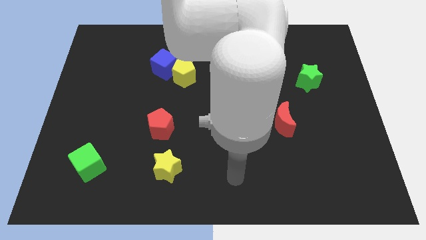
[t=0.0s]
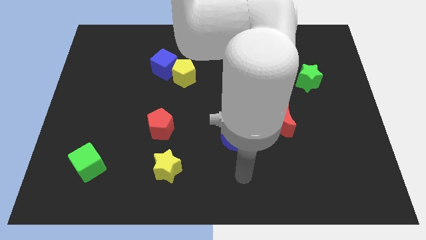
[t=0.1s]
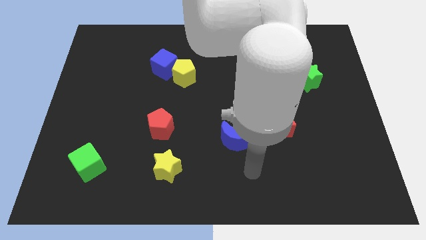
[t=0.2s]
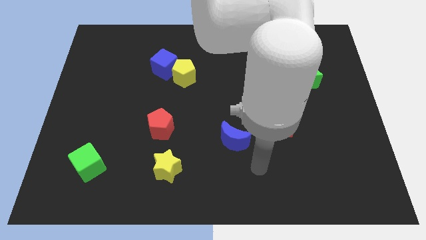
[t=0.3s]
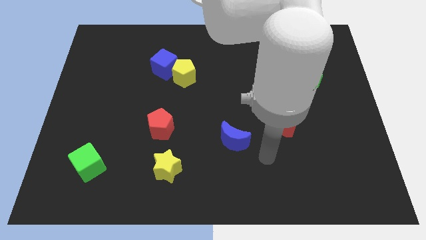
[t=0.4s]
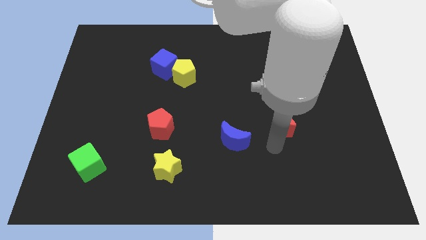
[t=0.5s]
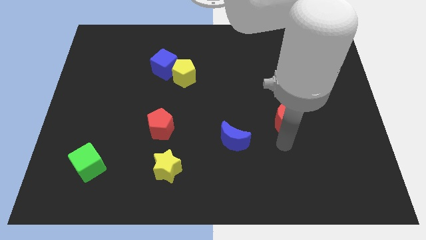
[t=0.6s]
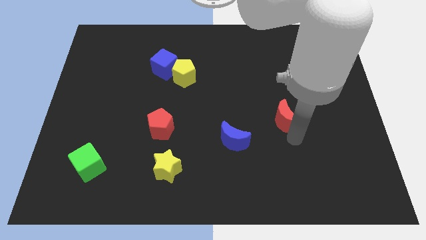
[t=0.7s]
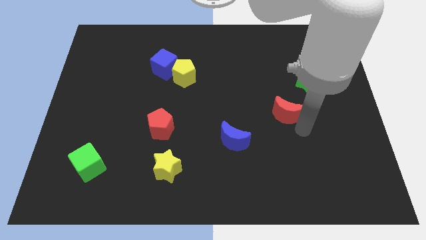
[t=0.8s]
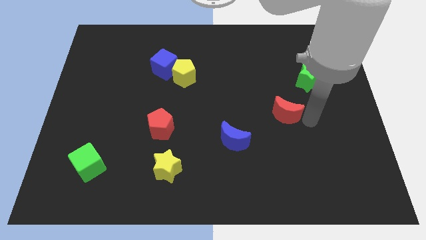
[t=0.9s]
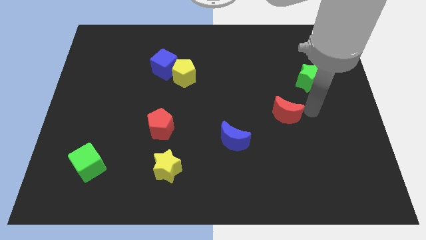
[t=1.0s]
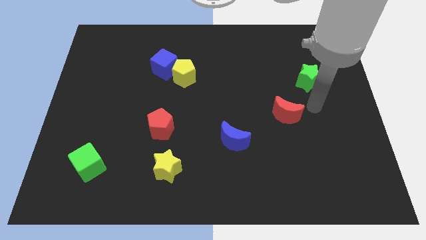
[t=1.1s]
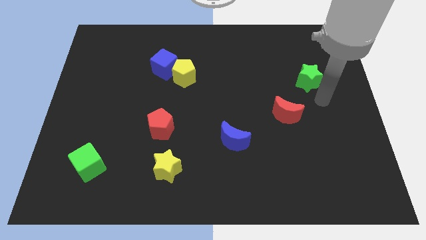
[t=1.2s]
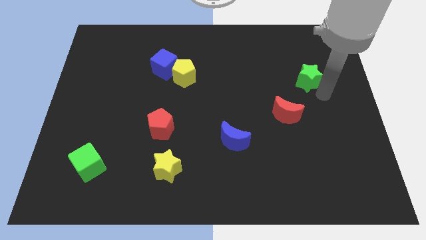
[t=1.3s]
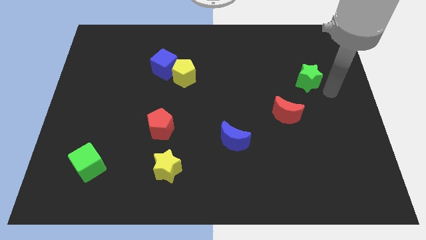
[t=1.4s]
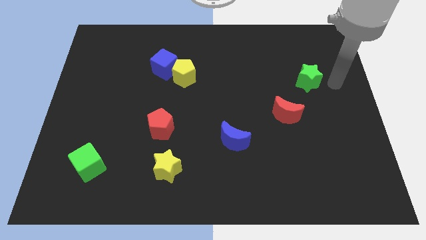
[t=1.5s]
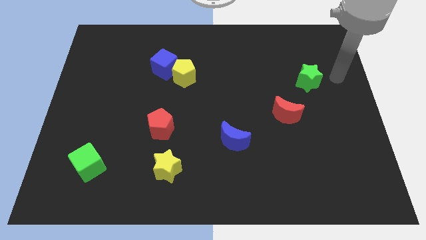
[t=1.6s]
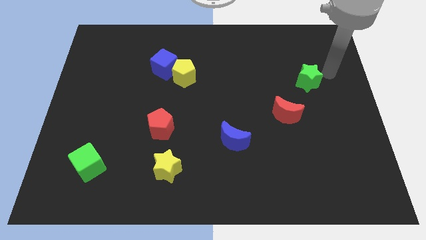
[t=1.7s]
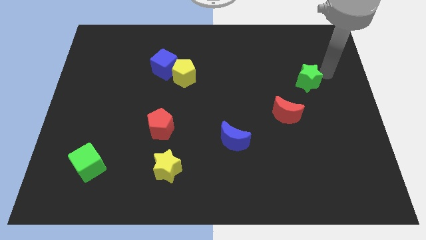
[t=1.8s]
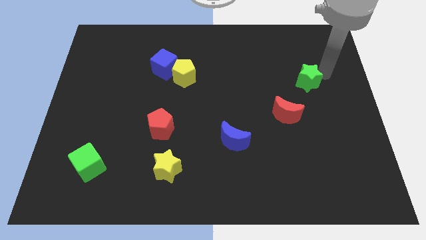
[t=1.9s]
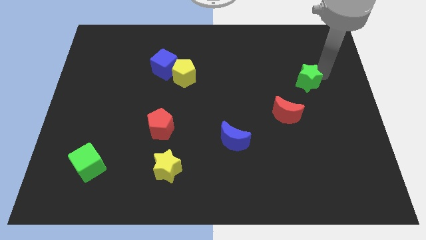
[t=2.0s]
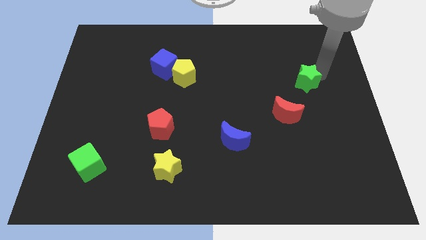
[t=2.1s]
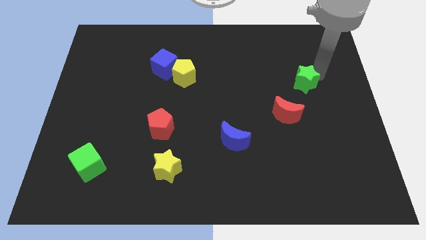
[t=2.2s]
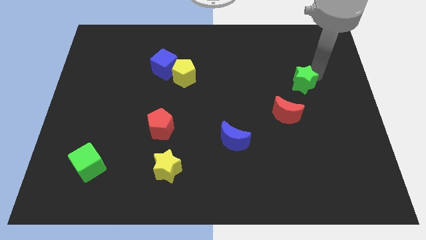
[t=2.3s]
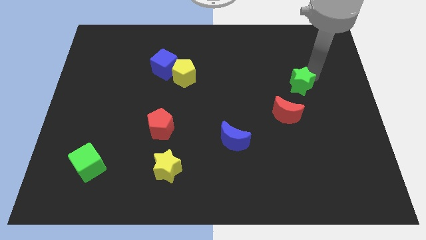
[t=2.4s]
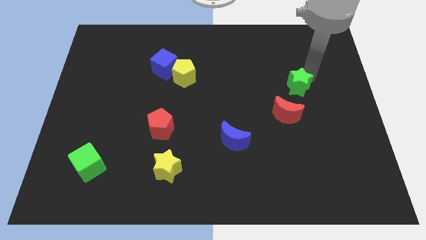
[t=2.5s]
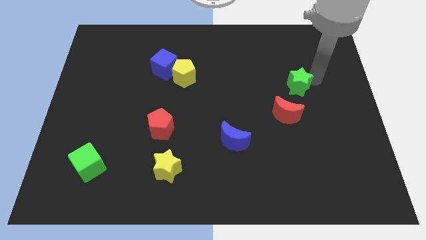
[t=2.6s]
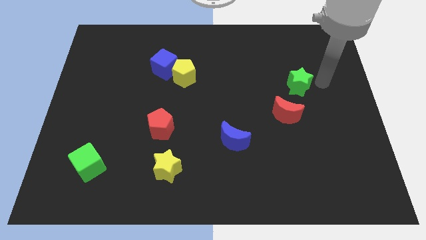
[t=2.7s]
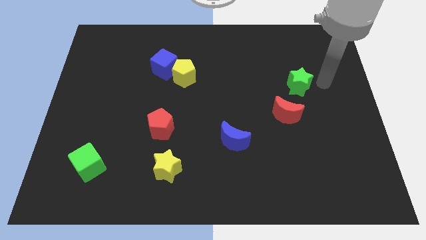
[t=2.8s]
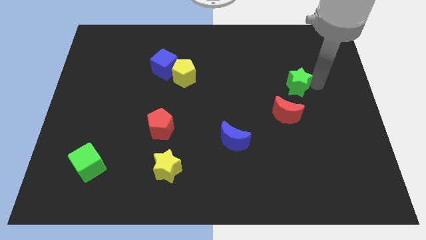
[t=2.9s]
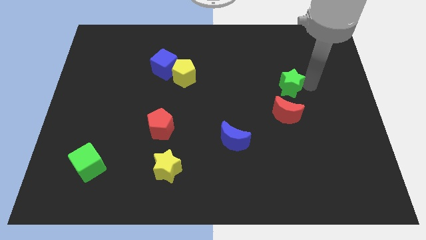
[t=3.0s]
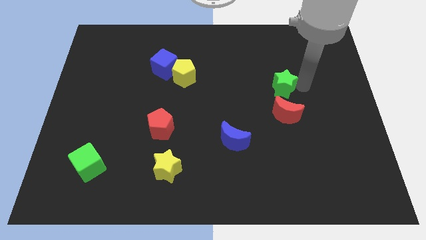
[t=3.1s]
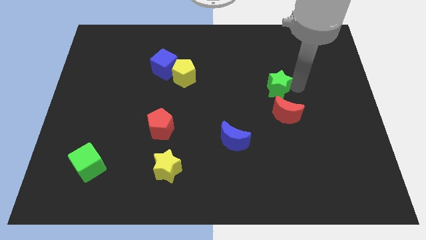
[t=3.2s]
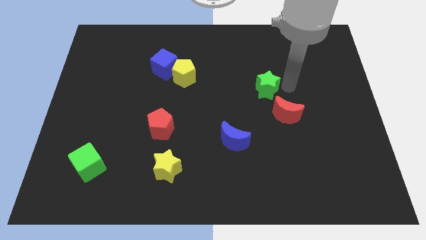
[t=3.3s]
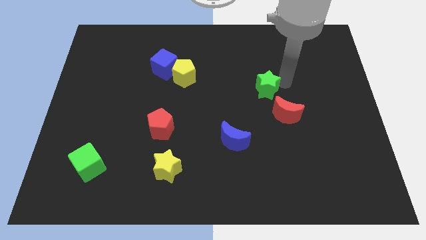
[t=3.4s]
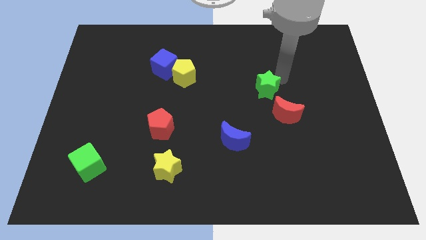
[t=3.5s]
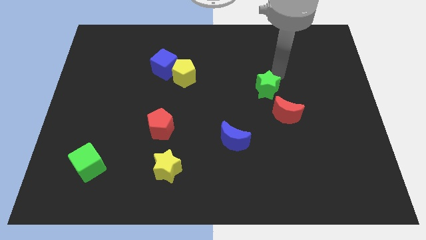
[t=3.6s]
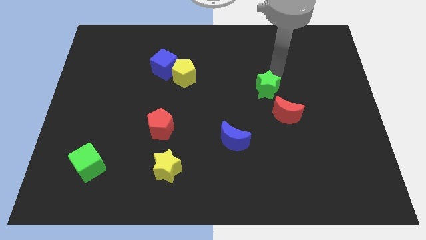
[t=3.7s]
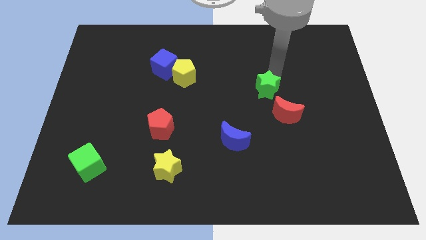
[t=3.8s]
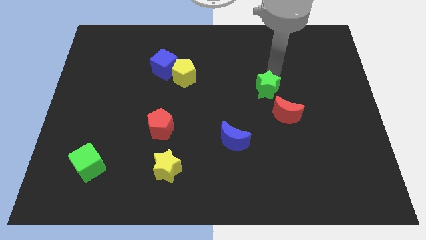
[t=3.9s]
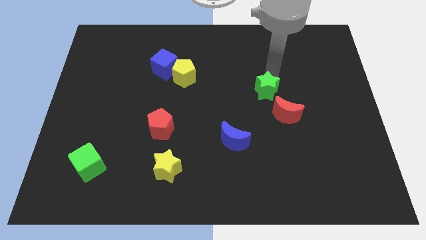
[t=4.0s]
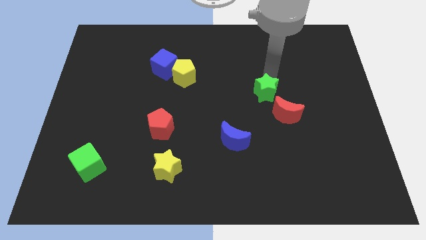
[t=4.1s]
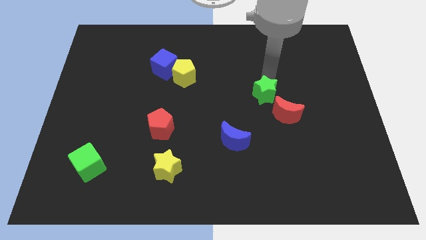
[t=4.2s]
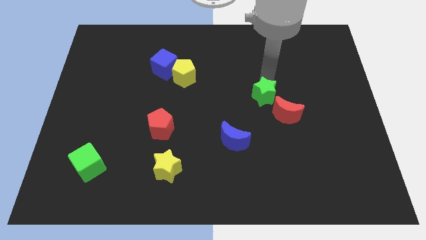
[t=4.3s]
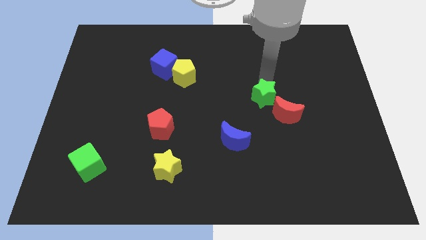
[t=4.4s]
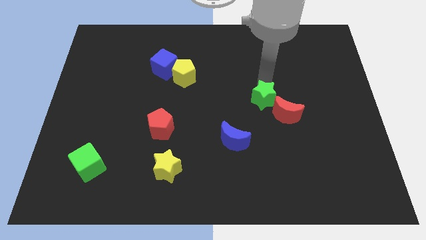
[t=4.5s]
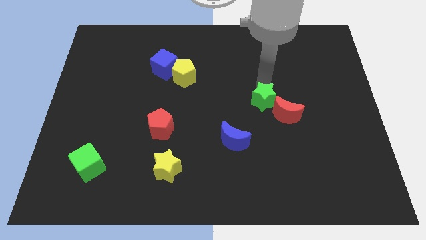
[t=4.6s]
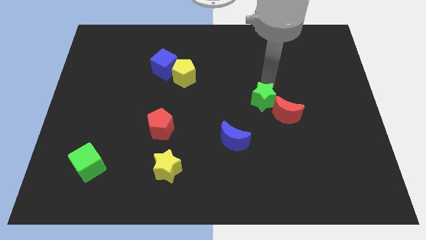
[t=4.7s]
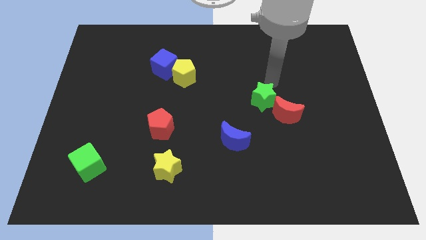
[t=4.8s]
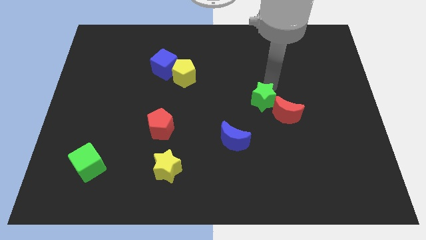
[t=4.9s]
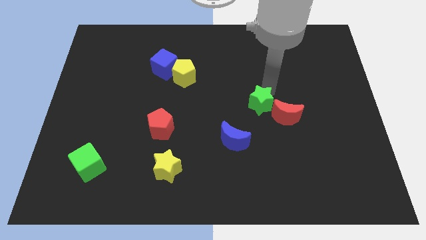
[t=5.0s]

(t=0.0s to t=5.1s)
move the green star diagonally up and to the right of the blue moon

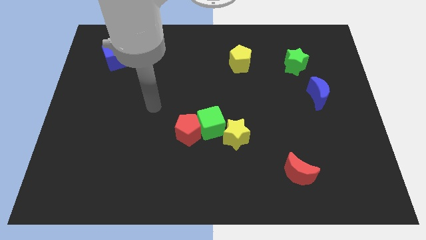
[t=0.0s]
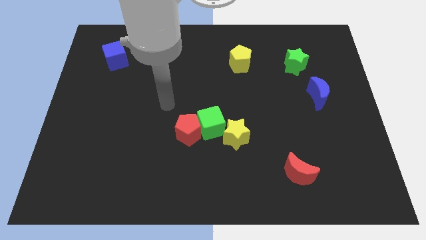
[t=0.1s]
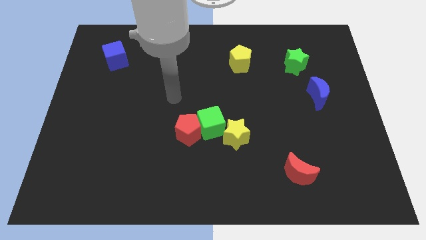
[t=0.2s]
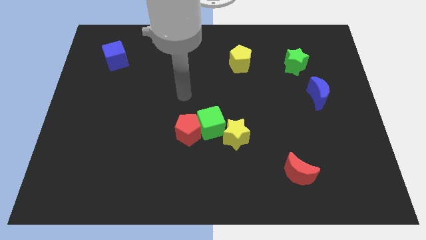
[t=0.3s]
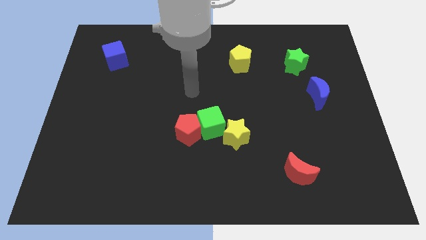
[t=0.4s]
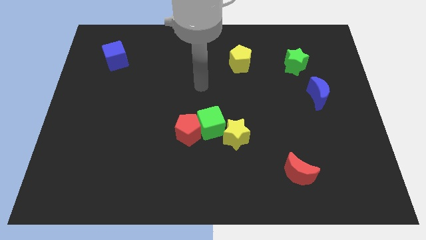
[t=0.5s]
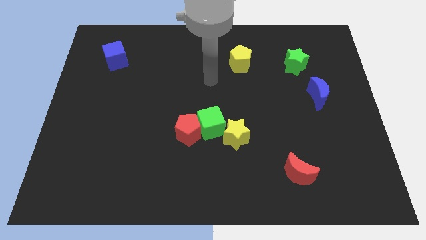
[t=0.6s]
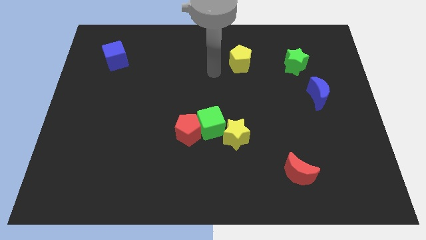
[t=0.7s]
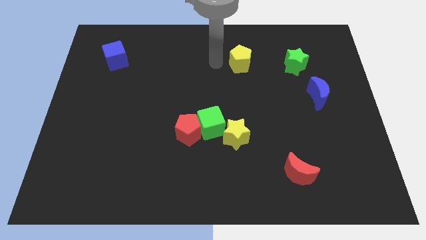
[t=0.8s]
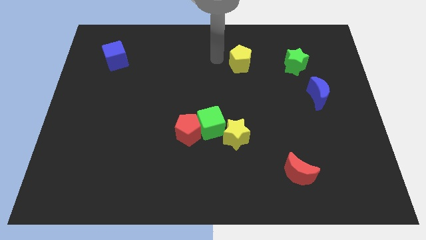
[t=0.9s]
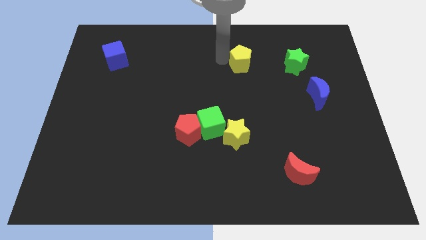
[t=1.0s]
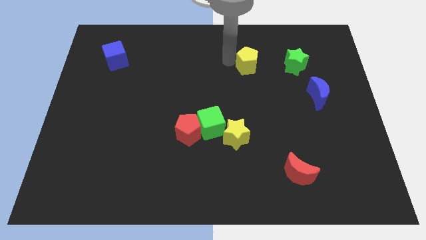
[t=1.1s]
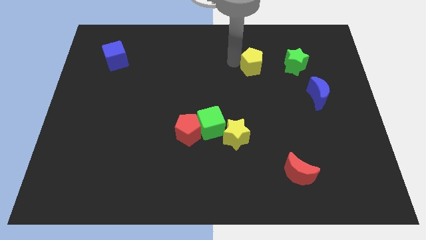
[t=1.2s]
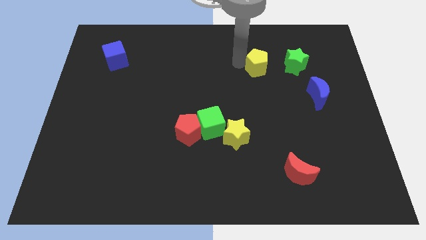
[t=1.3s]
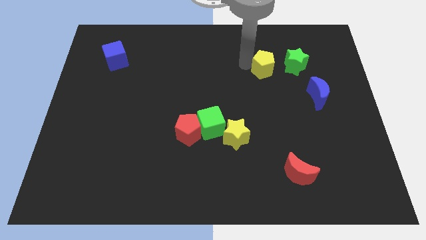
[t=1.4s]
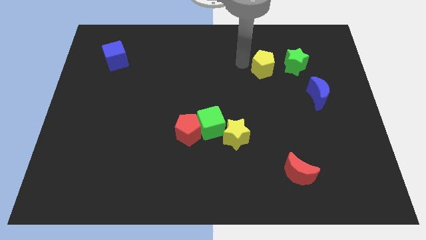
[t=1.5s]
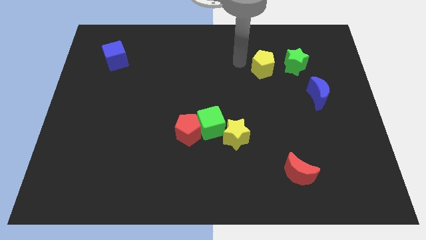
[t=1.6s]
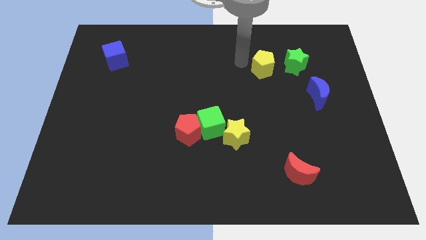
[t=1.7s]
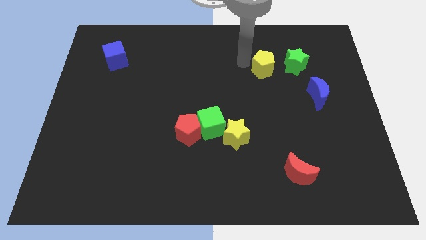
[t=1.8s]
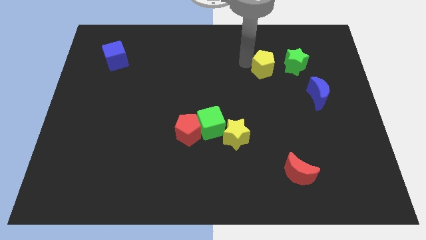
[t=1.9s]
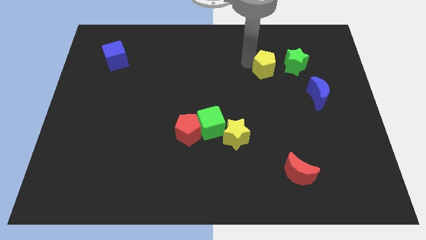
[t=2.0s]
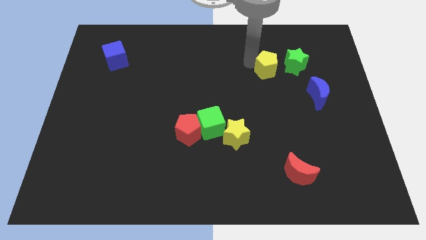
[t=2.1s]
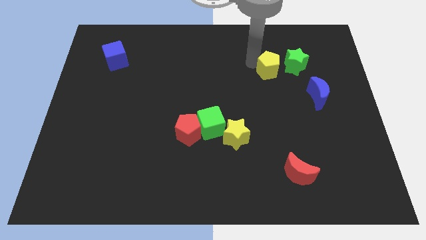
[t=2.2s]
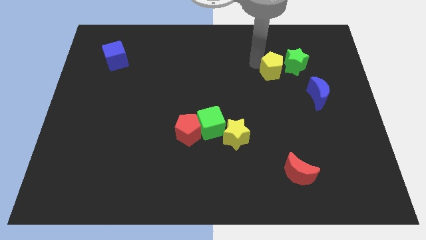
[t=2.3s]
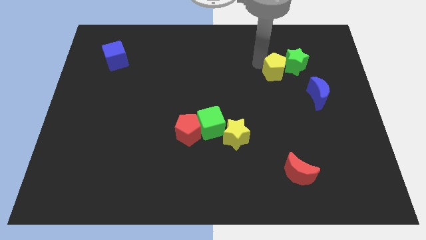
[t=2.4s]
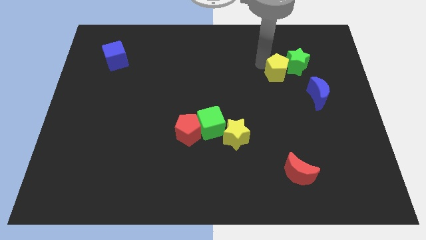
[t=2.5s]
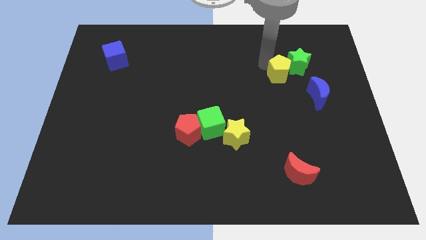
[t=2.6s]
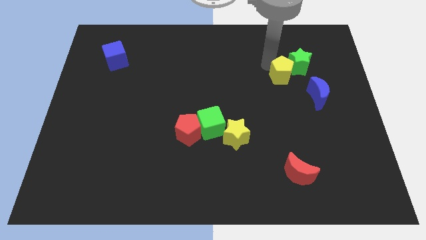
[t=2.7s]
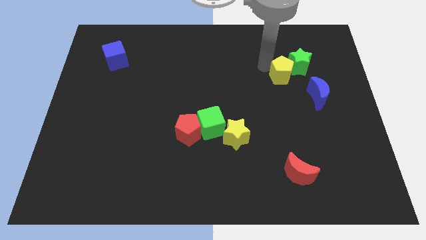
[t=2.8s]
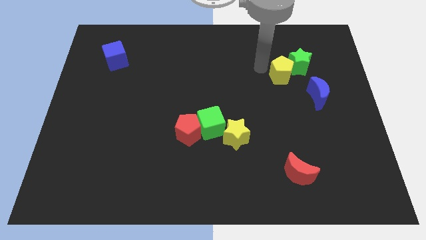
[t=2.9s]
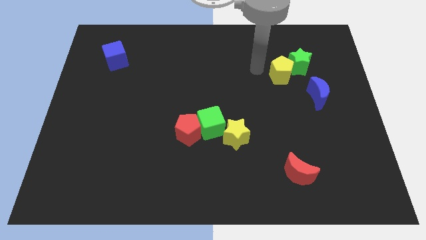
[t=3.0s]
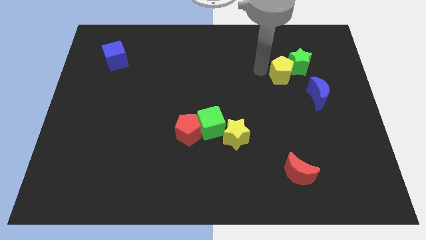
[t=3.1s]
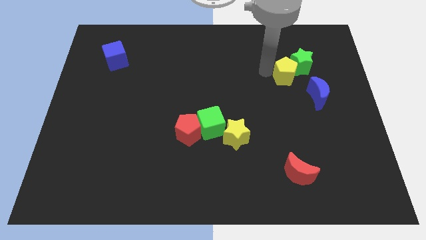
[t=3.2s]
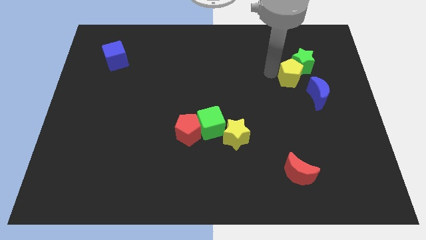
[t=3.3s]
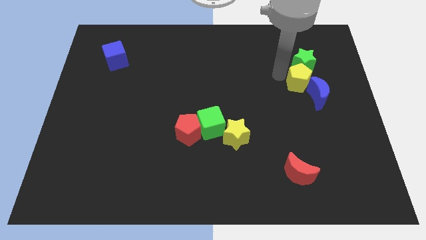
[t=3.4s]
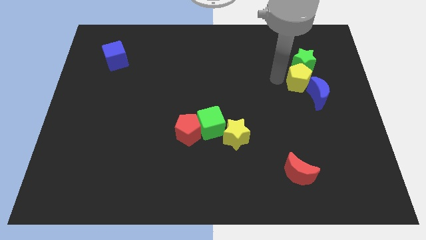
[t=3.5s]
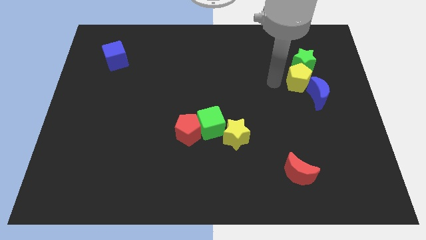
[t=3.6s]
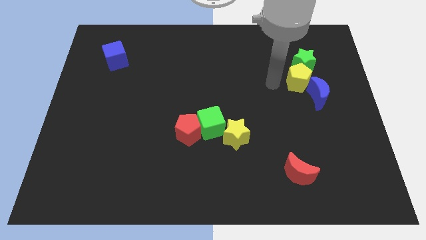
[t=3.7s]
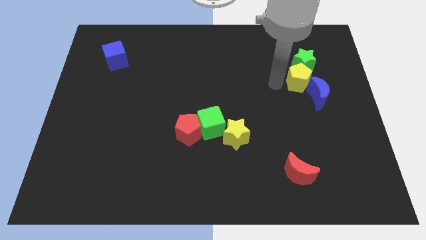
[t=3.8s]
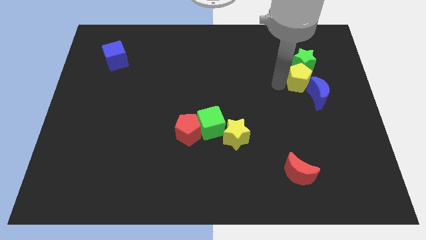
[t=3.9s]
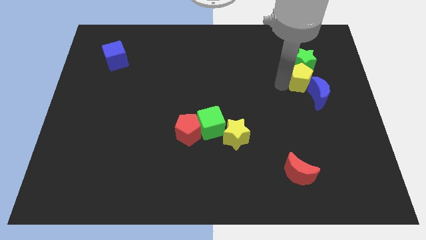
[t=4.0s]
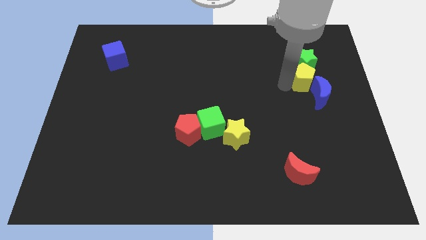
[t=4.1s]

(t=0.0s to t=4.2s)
slide the yellow pentagon diagonally down and to the right of the green star
